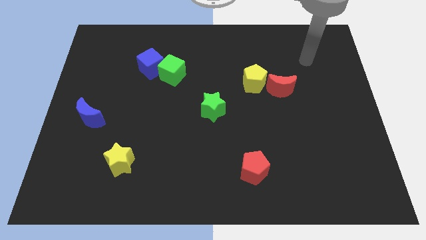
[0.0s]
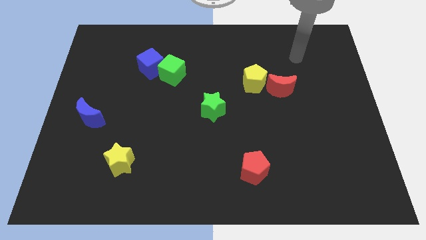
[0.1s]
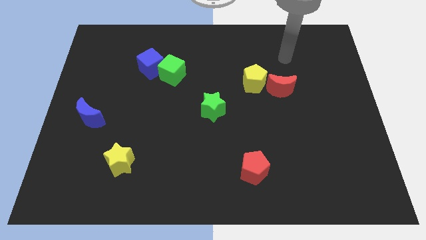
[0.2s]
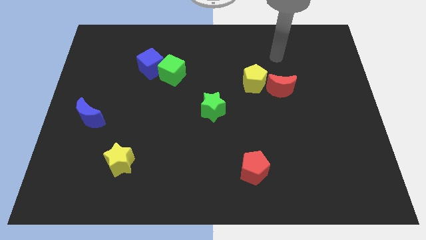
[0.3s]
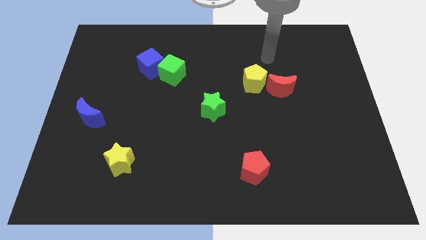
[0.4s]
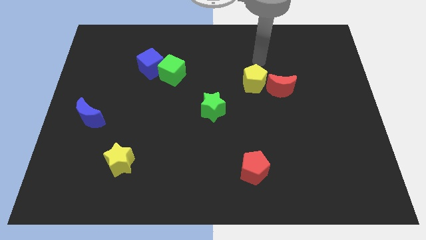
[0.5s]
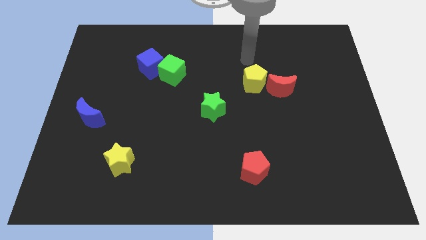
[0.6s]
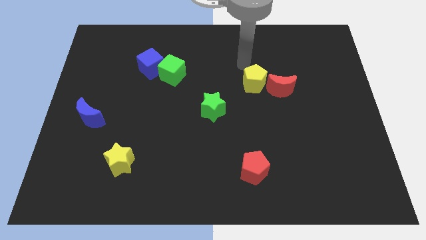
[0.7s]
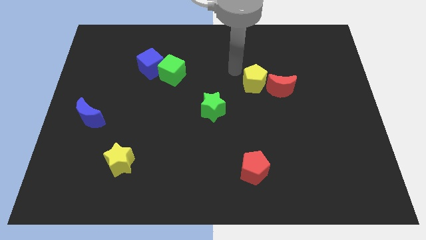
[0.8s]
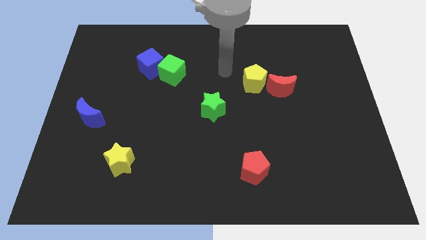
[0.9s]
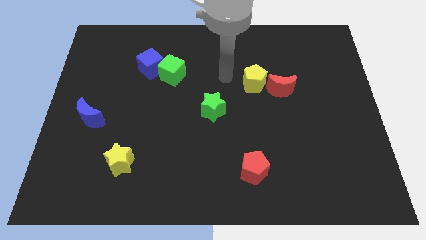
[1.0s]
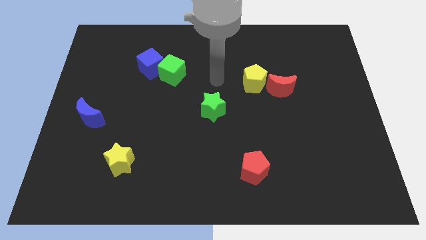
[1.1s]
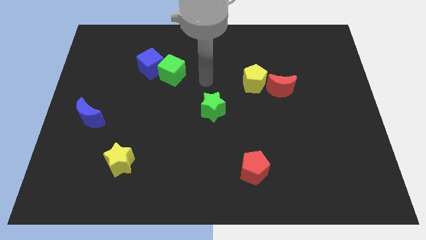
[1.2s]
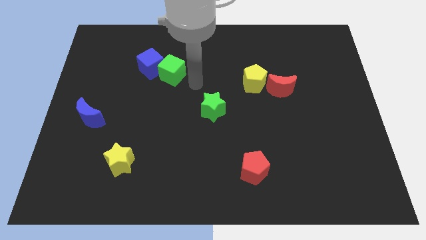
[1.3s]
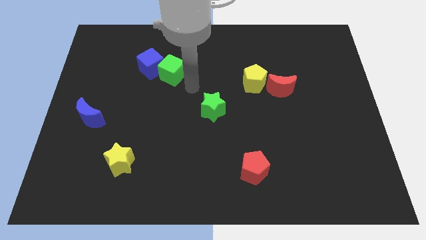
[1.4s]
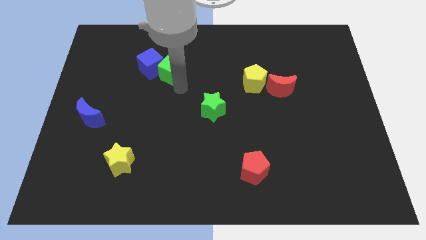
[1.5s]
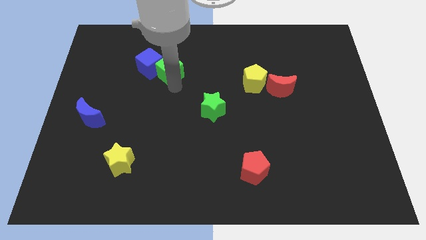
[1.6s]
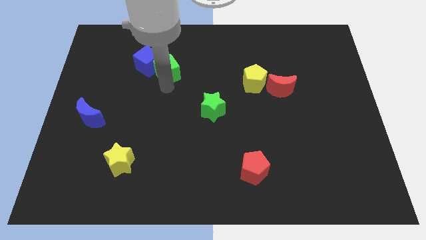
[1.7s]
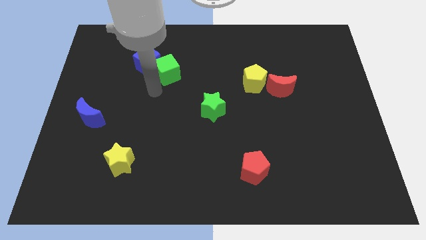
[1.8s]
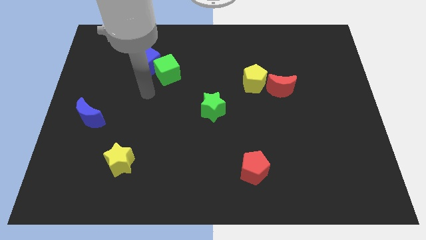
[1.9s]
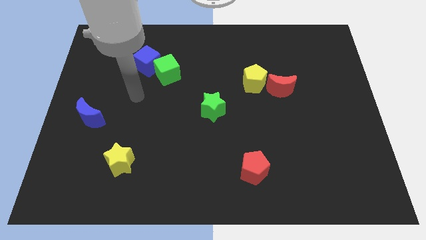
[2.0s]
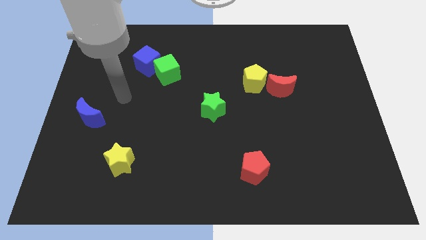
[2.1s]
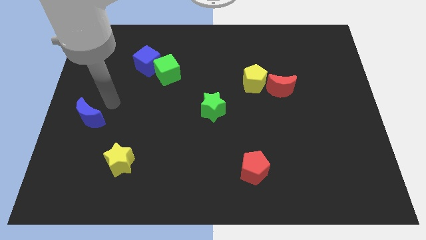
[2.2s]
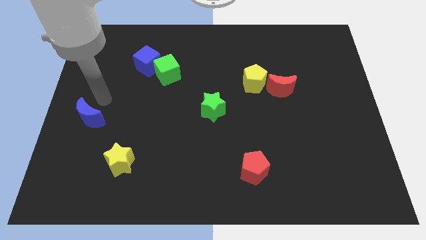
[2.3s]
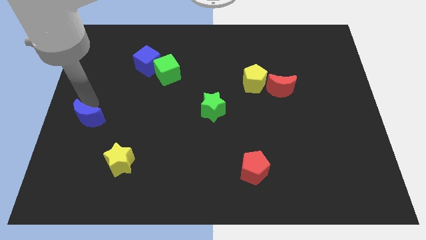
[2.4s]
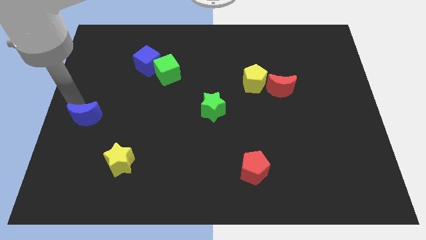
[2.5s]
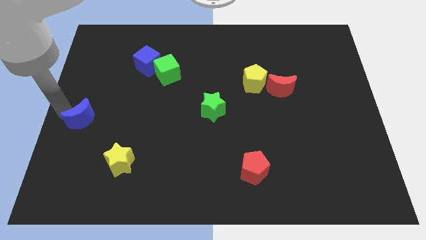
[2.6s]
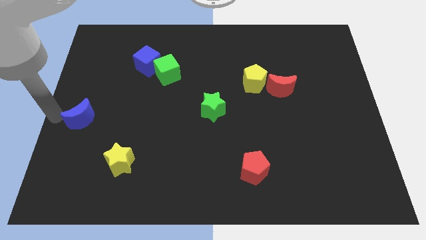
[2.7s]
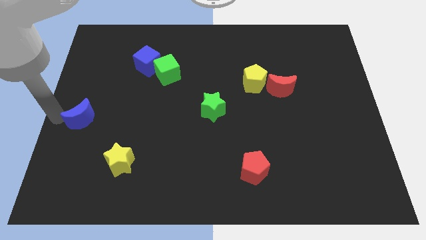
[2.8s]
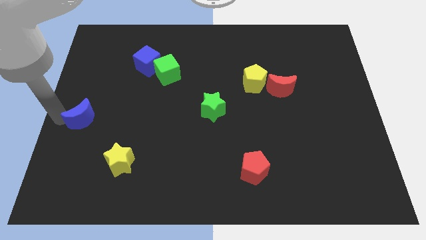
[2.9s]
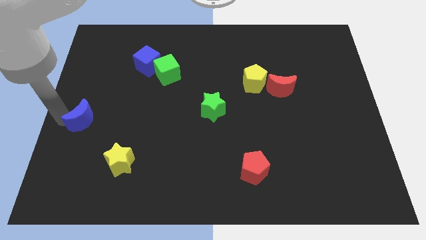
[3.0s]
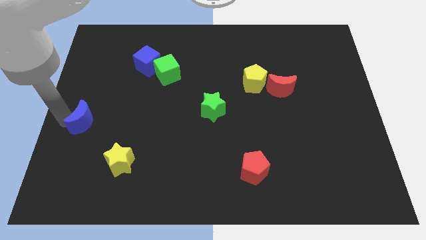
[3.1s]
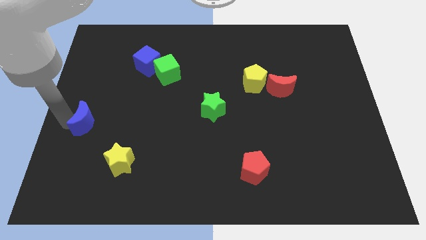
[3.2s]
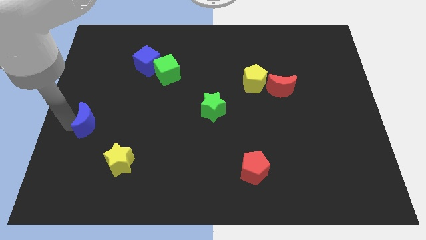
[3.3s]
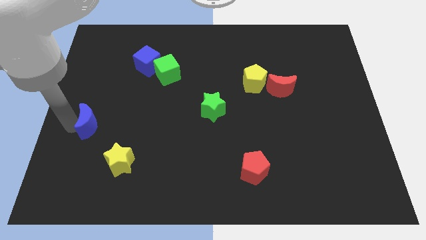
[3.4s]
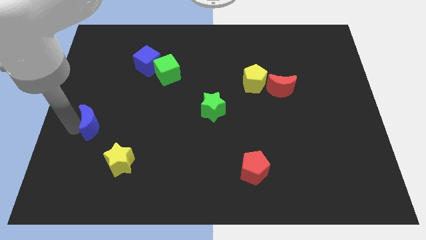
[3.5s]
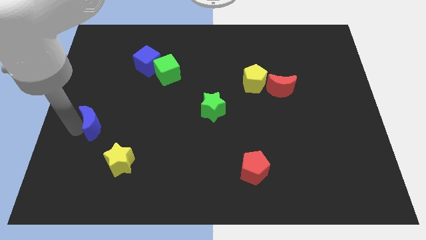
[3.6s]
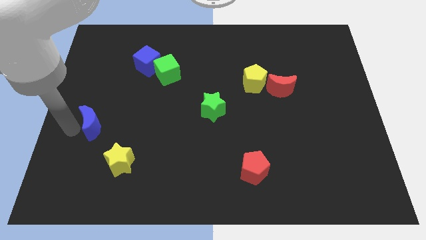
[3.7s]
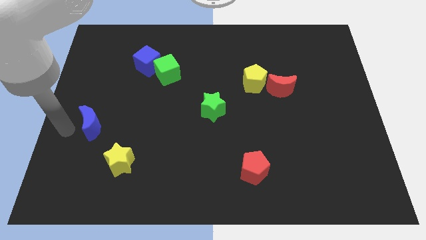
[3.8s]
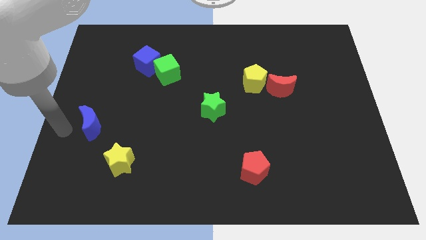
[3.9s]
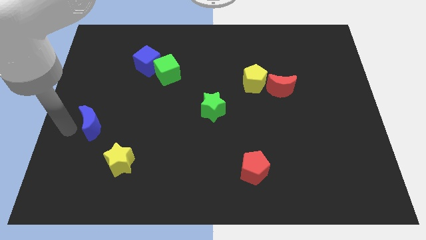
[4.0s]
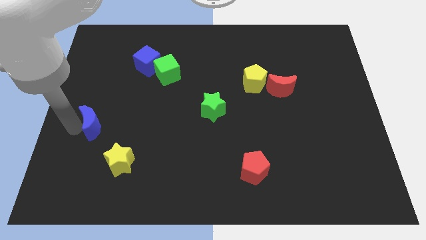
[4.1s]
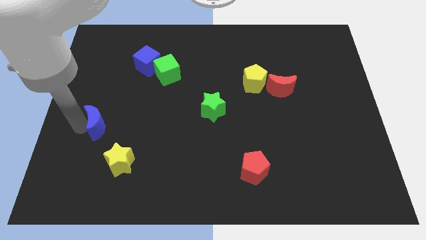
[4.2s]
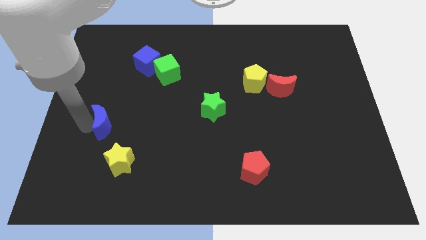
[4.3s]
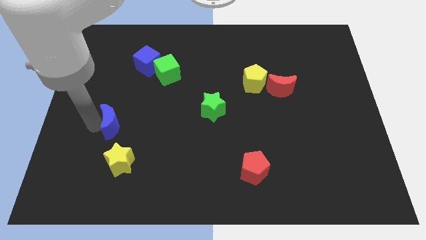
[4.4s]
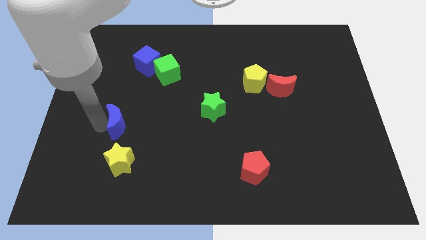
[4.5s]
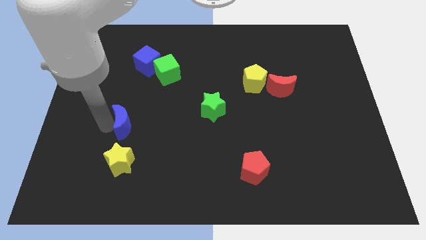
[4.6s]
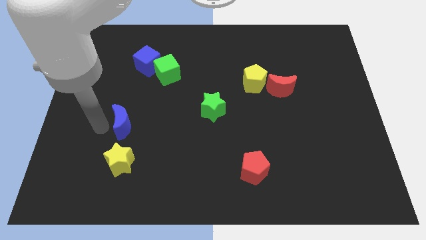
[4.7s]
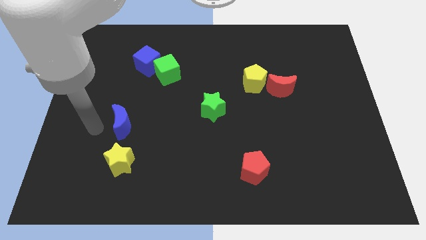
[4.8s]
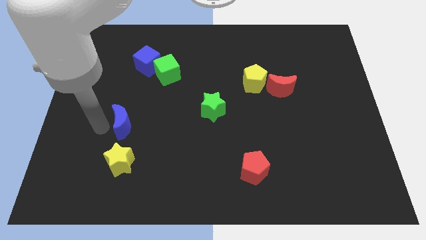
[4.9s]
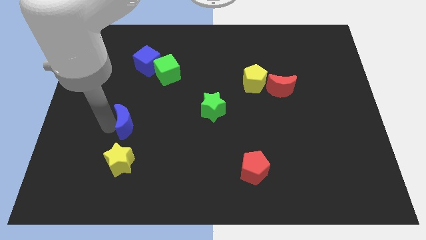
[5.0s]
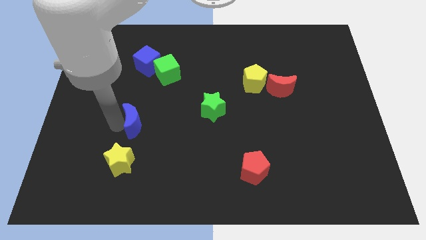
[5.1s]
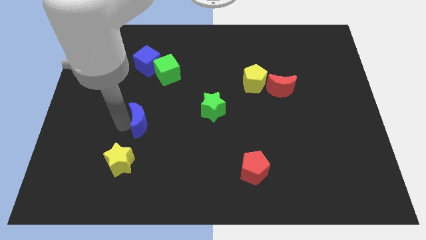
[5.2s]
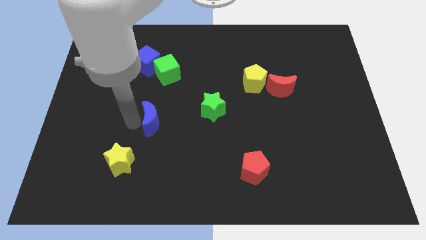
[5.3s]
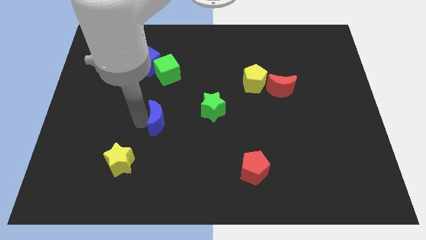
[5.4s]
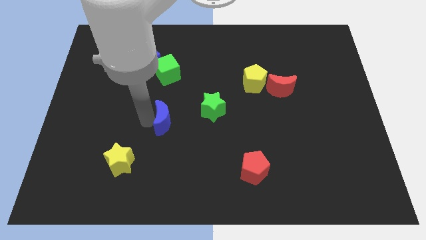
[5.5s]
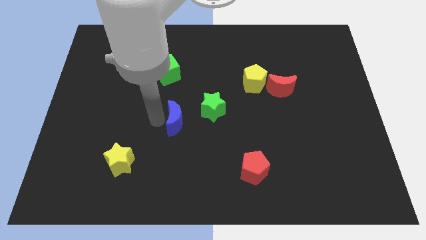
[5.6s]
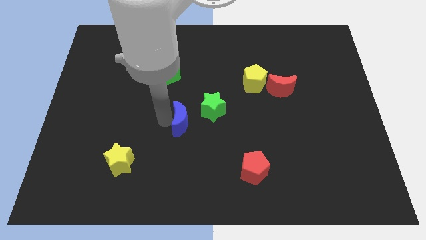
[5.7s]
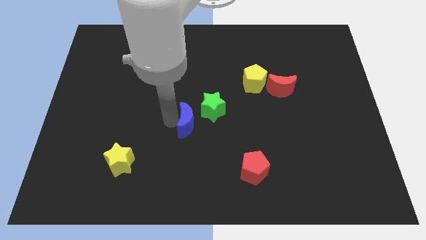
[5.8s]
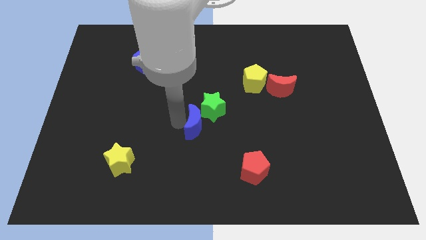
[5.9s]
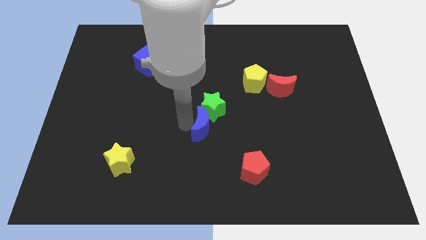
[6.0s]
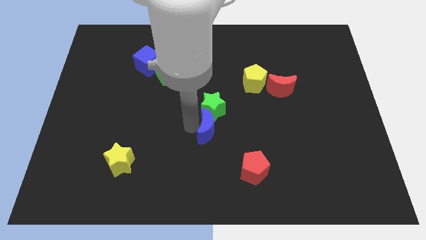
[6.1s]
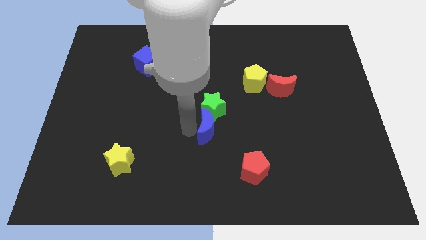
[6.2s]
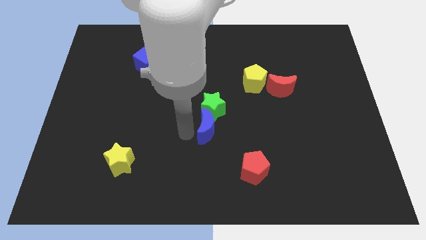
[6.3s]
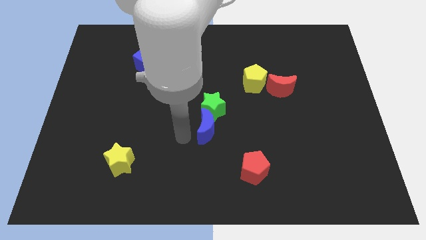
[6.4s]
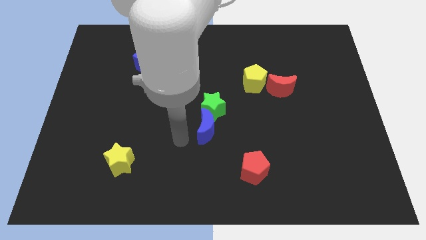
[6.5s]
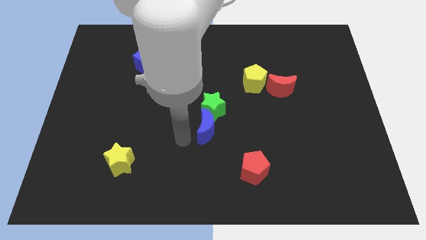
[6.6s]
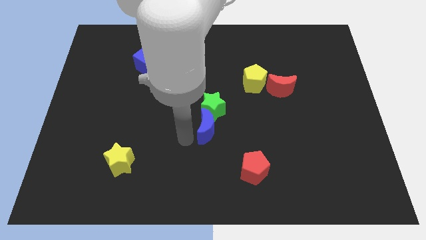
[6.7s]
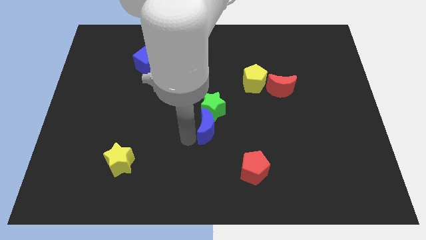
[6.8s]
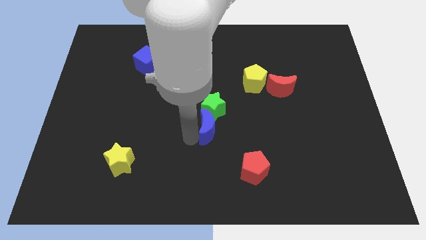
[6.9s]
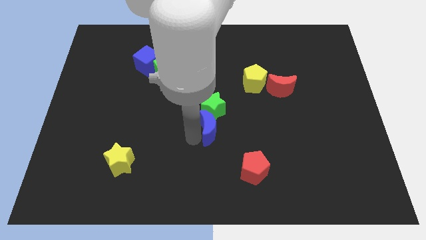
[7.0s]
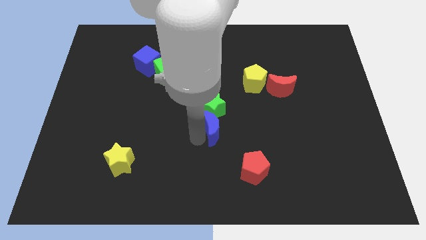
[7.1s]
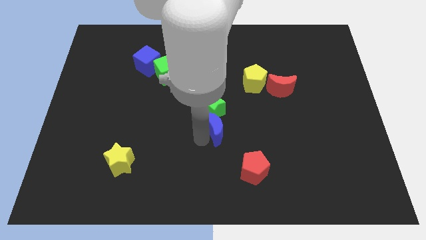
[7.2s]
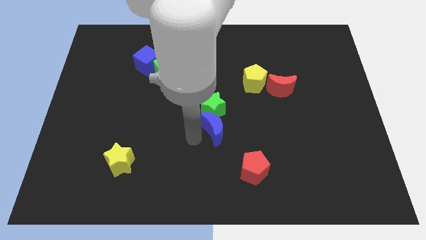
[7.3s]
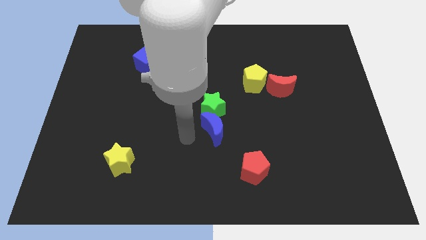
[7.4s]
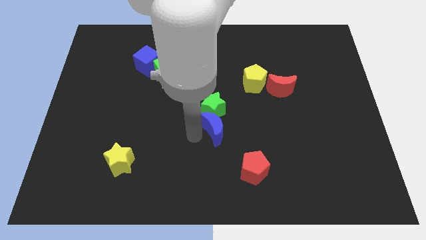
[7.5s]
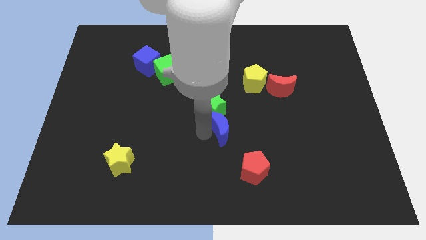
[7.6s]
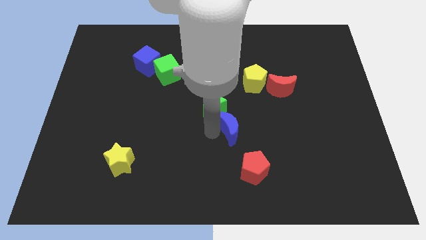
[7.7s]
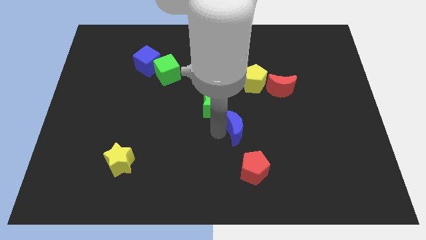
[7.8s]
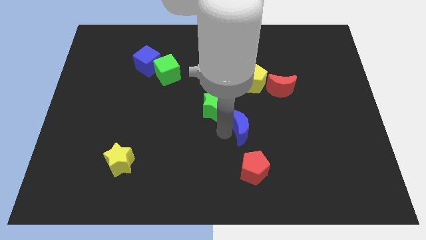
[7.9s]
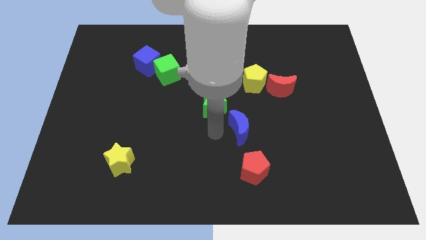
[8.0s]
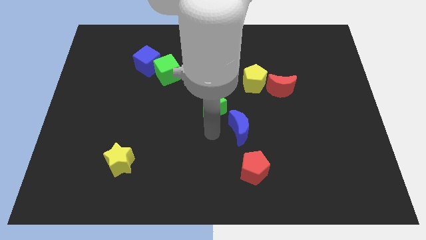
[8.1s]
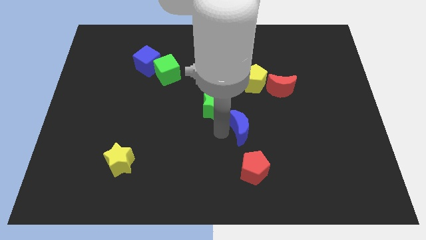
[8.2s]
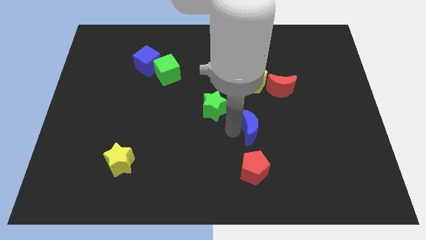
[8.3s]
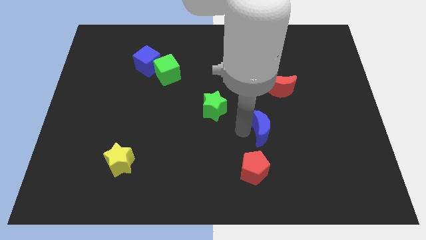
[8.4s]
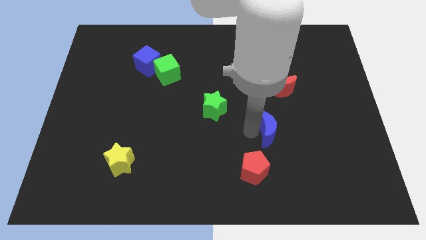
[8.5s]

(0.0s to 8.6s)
slide the blue moon below the red moon
